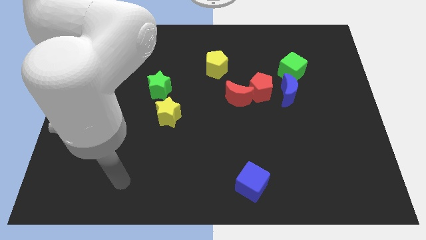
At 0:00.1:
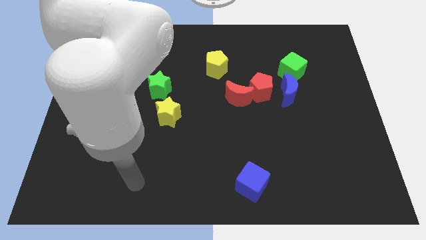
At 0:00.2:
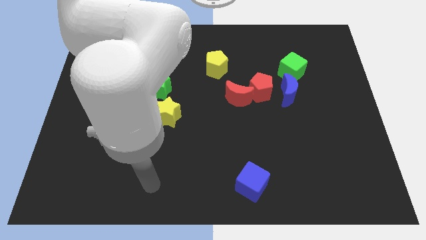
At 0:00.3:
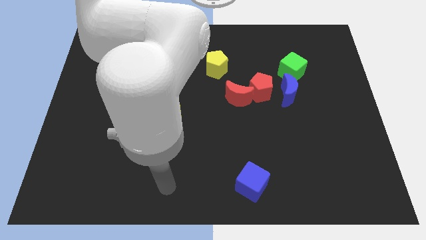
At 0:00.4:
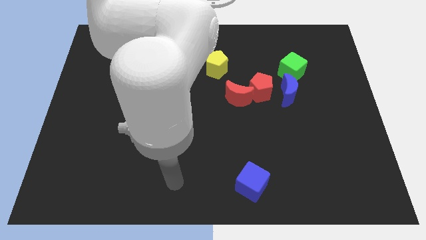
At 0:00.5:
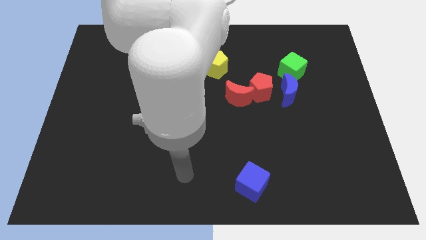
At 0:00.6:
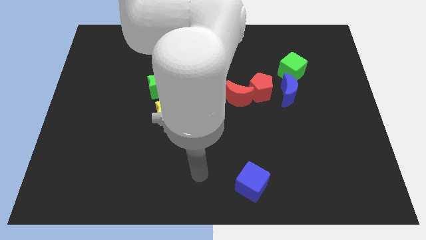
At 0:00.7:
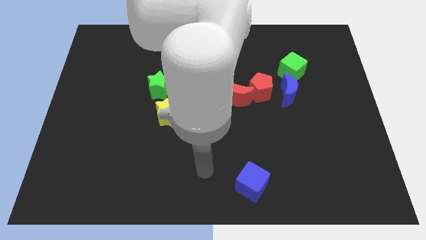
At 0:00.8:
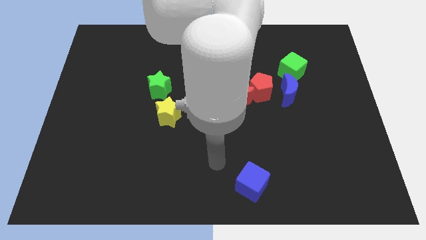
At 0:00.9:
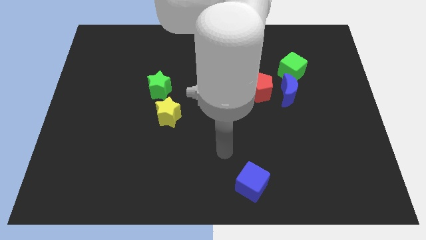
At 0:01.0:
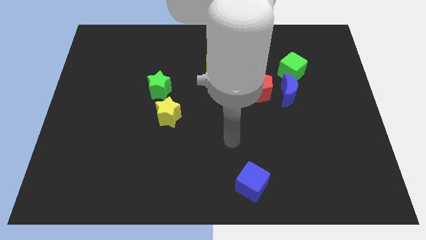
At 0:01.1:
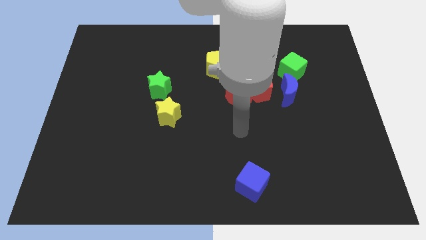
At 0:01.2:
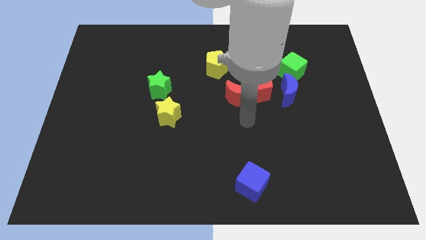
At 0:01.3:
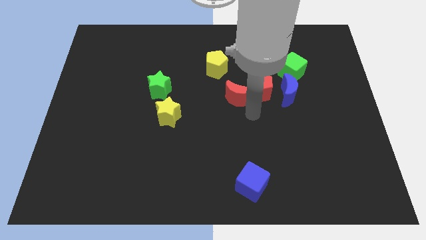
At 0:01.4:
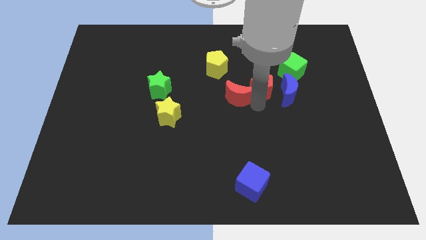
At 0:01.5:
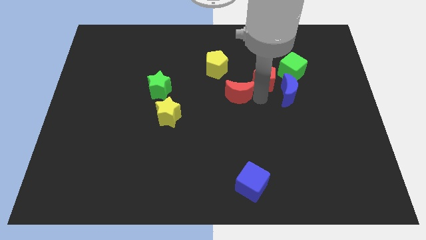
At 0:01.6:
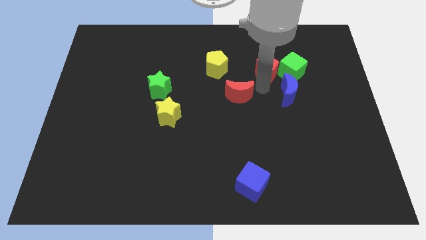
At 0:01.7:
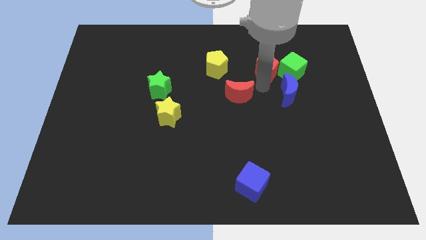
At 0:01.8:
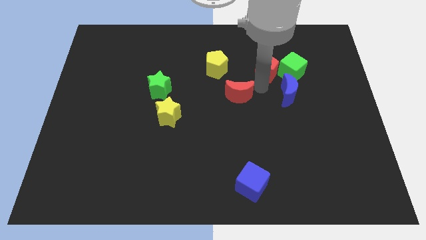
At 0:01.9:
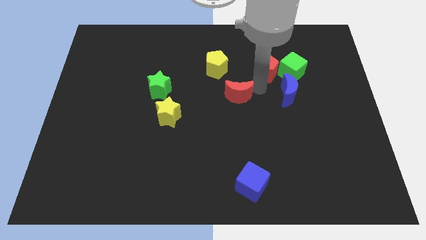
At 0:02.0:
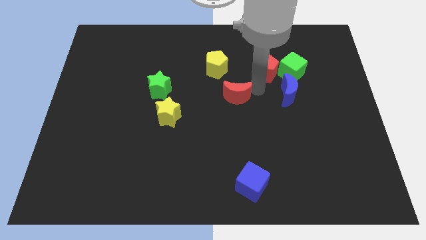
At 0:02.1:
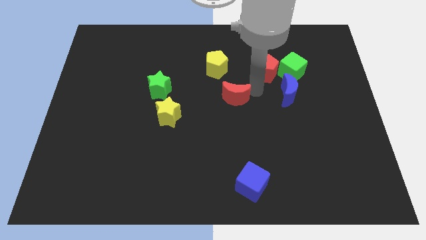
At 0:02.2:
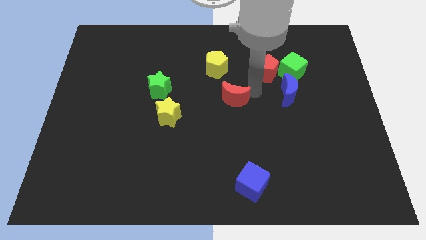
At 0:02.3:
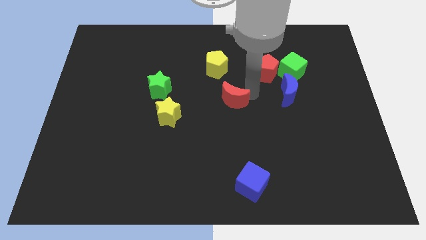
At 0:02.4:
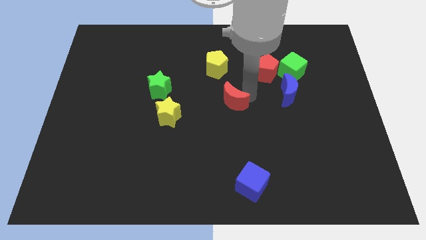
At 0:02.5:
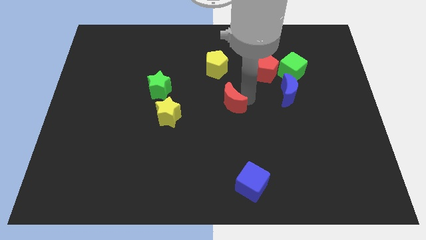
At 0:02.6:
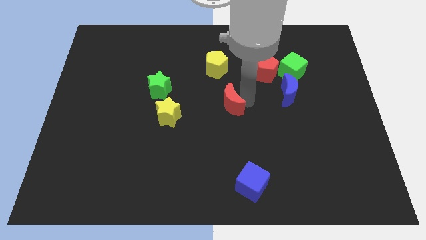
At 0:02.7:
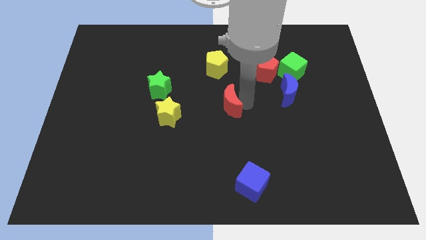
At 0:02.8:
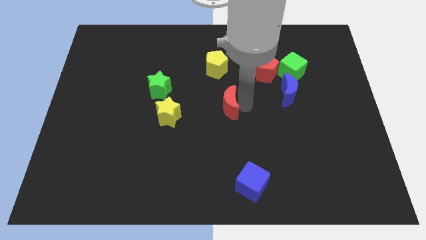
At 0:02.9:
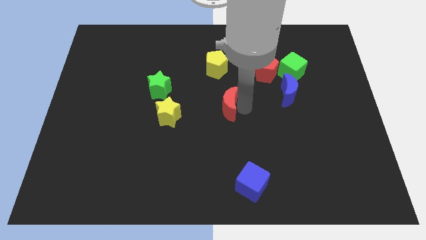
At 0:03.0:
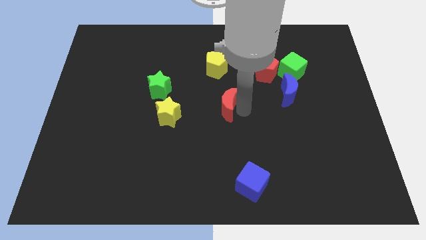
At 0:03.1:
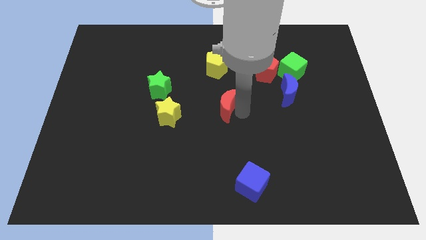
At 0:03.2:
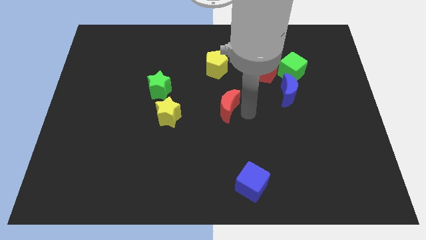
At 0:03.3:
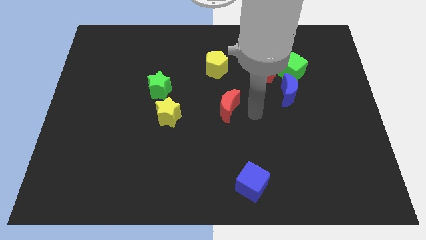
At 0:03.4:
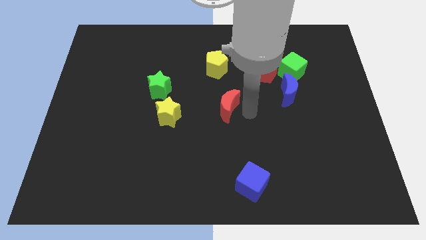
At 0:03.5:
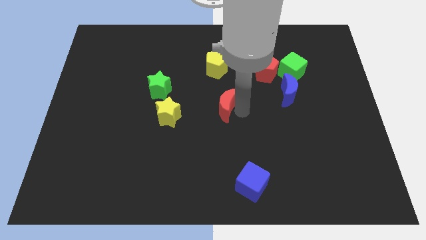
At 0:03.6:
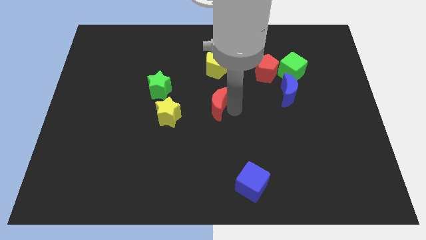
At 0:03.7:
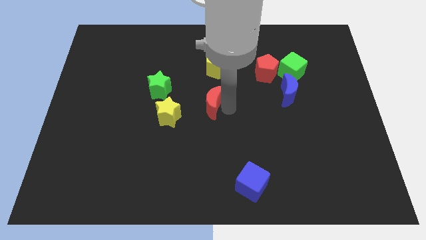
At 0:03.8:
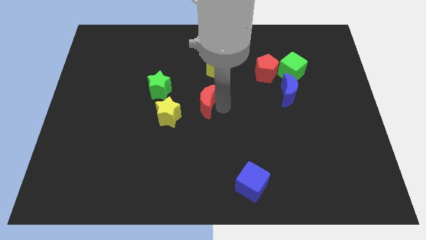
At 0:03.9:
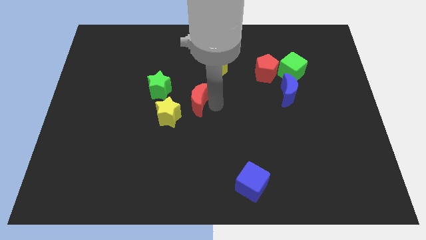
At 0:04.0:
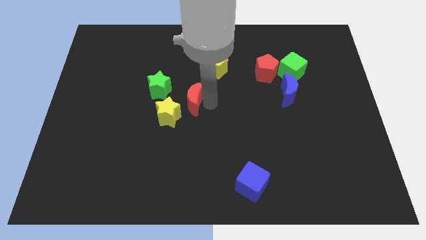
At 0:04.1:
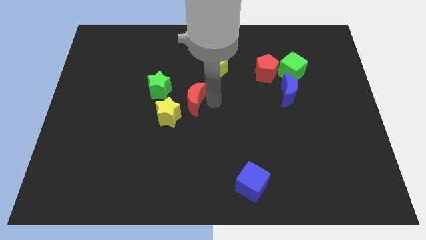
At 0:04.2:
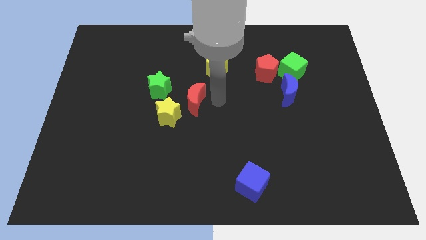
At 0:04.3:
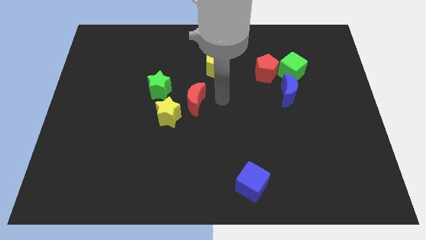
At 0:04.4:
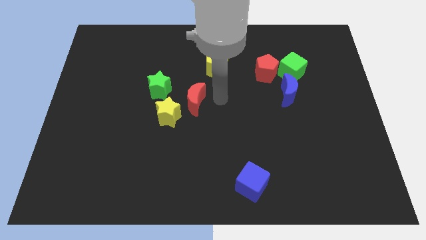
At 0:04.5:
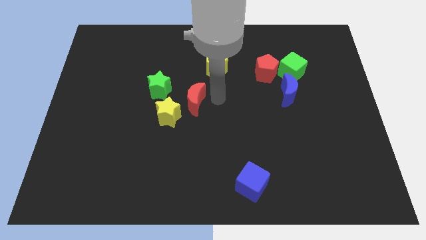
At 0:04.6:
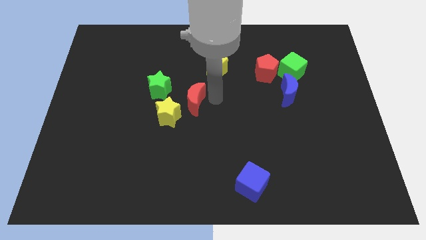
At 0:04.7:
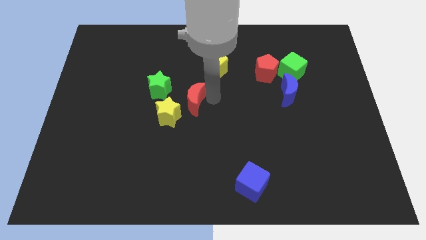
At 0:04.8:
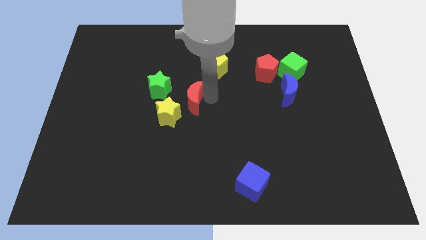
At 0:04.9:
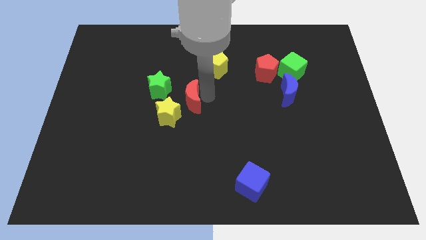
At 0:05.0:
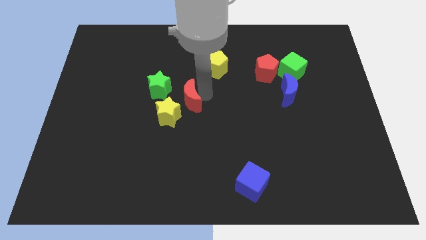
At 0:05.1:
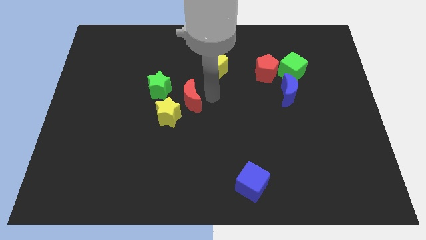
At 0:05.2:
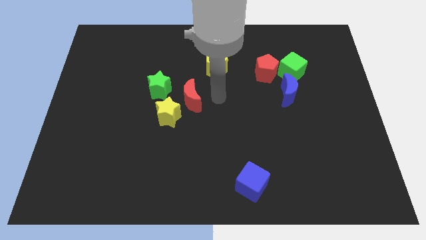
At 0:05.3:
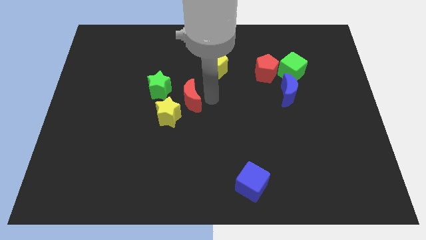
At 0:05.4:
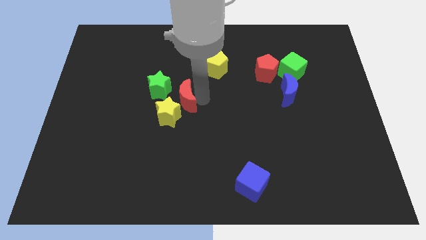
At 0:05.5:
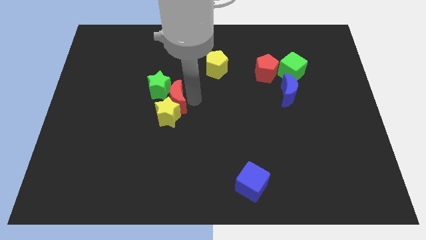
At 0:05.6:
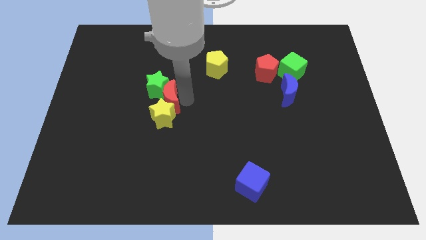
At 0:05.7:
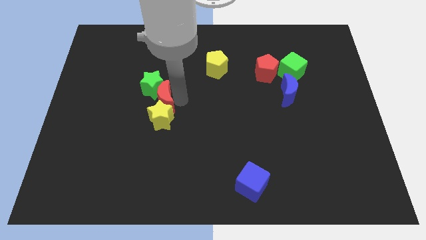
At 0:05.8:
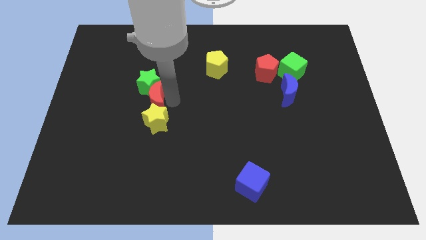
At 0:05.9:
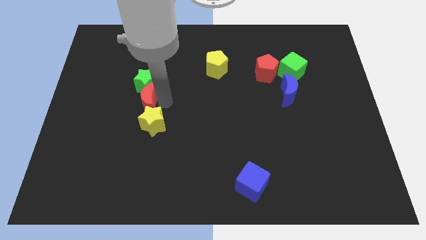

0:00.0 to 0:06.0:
slide the red moon left

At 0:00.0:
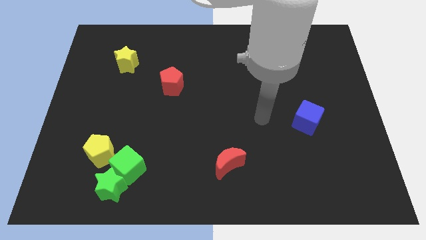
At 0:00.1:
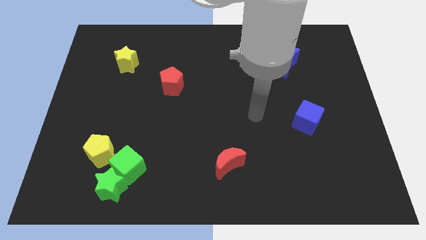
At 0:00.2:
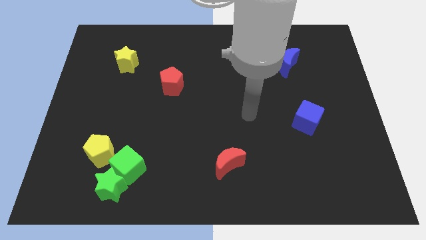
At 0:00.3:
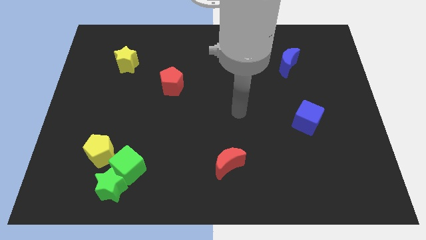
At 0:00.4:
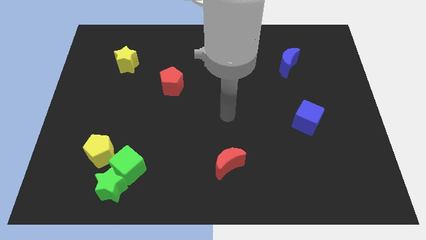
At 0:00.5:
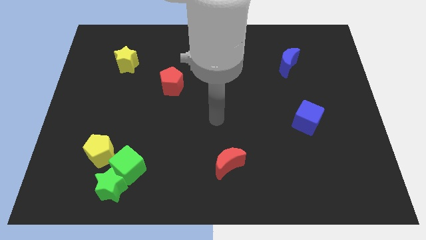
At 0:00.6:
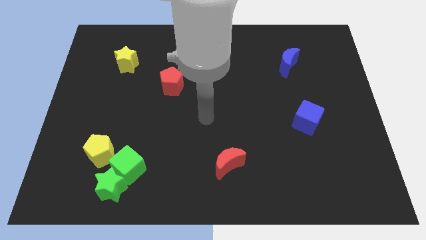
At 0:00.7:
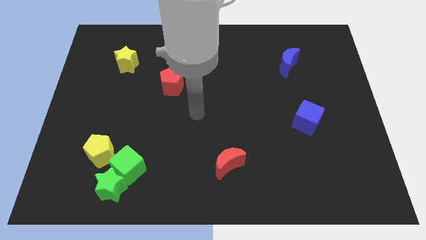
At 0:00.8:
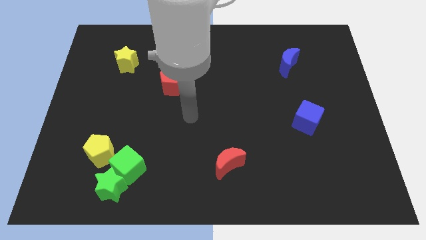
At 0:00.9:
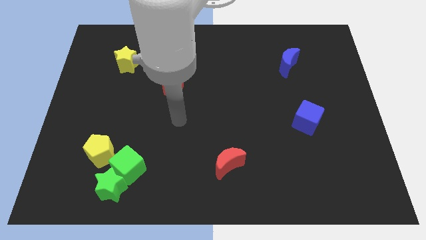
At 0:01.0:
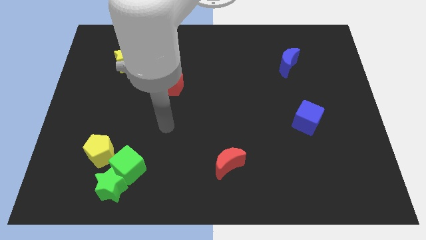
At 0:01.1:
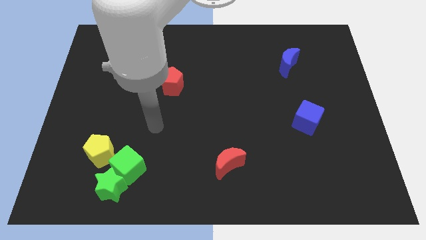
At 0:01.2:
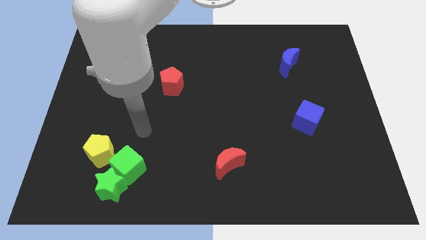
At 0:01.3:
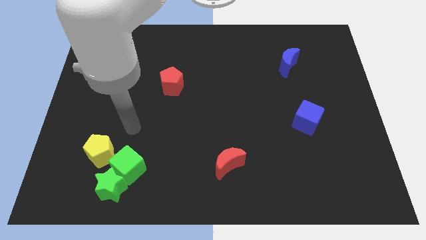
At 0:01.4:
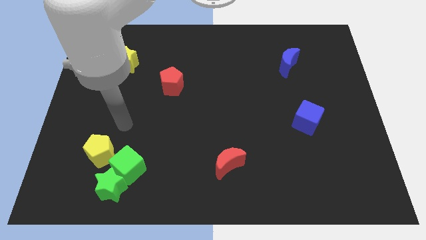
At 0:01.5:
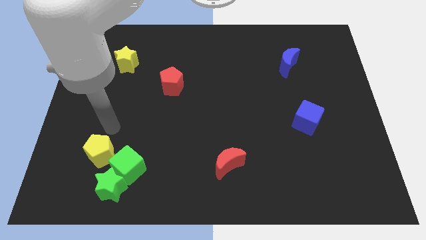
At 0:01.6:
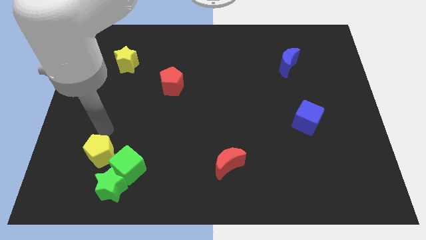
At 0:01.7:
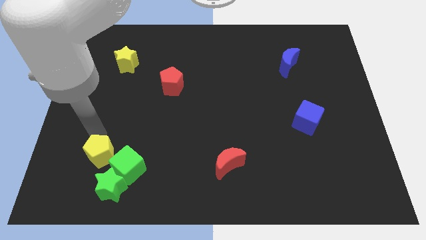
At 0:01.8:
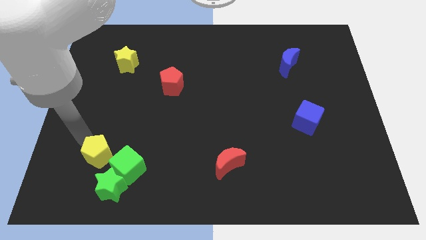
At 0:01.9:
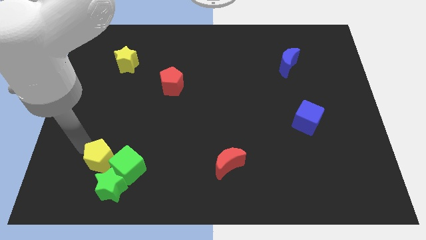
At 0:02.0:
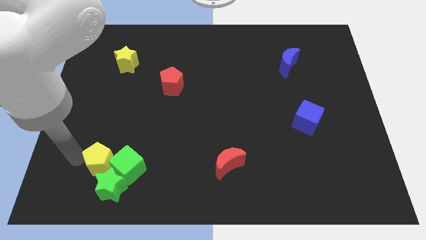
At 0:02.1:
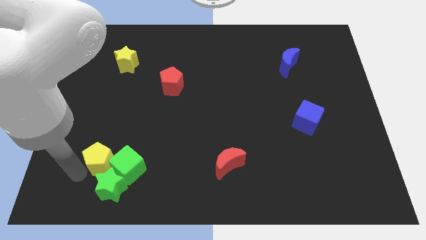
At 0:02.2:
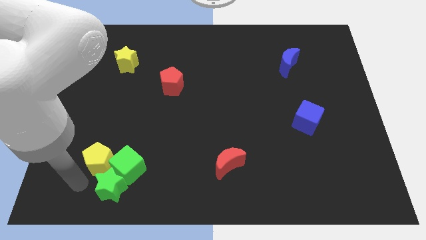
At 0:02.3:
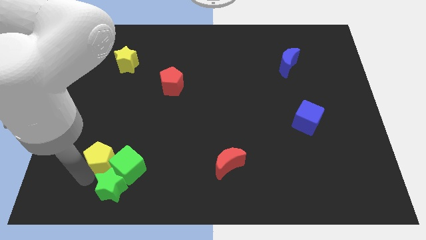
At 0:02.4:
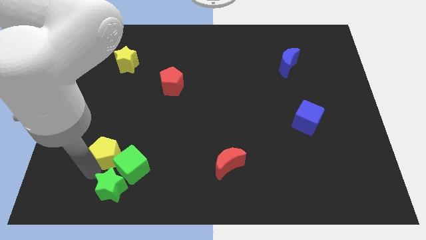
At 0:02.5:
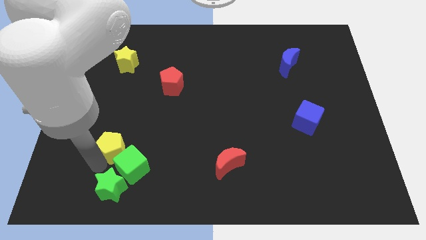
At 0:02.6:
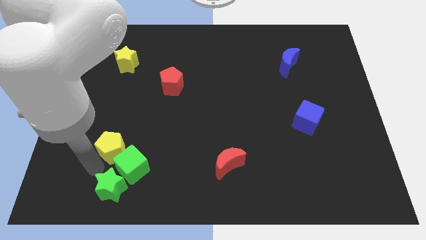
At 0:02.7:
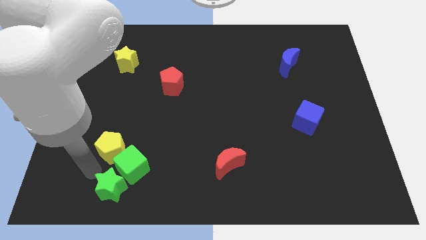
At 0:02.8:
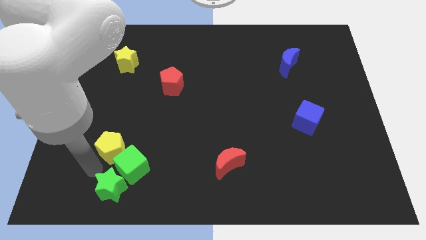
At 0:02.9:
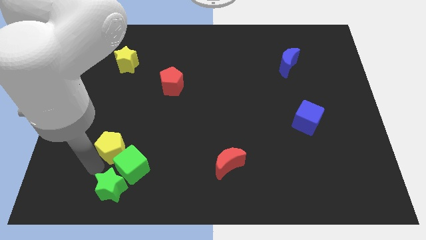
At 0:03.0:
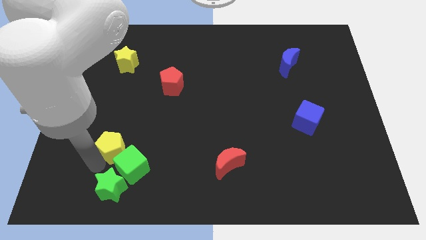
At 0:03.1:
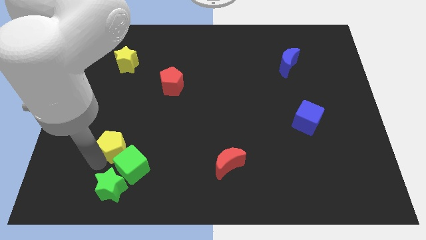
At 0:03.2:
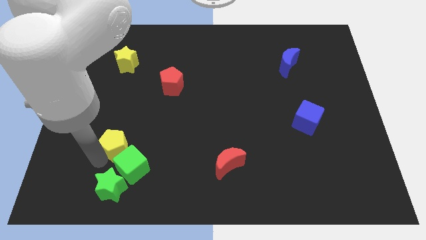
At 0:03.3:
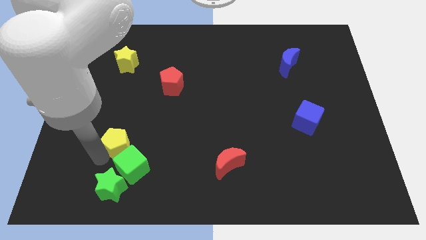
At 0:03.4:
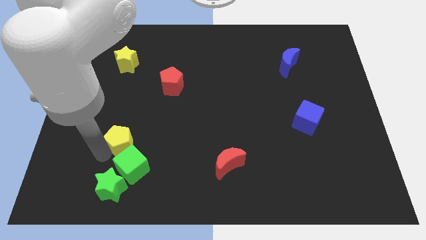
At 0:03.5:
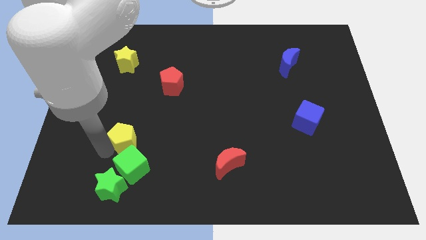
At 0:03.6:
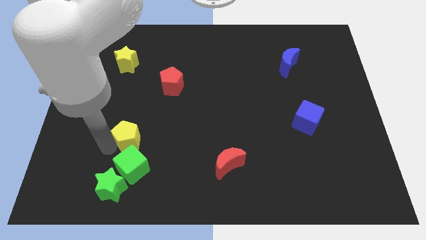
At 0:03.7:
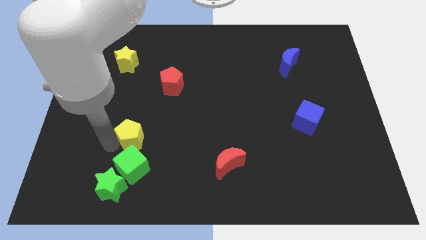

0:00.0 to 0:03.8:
slightly push the yellow pentagon diagonally upwards and right
